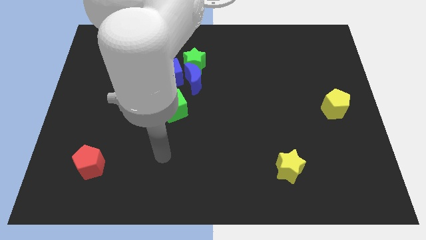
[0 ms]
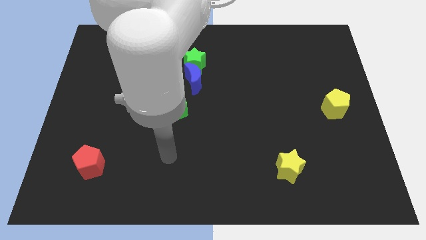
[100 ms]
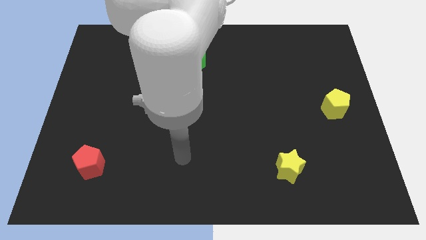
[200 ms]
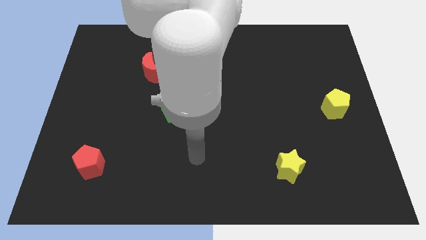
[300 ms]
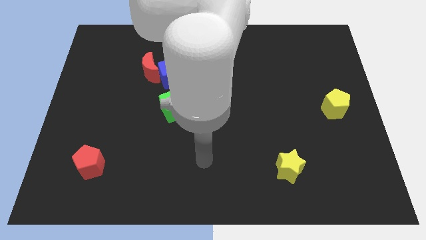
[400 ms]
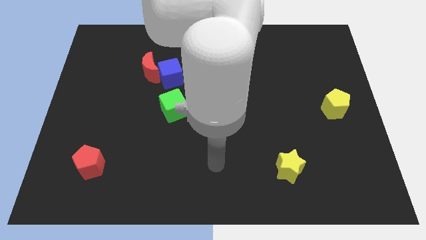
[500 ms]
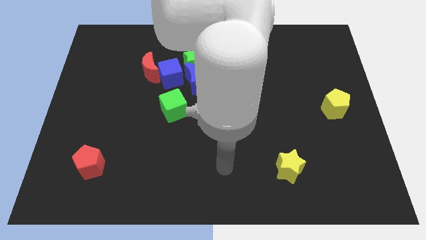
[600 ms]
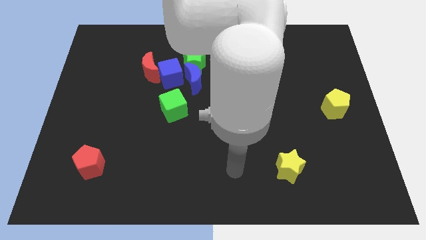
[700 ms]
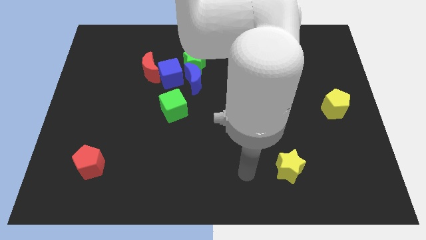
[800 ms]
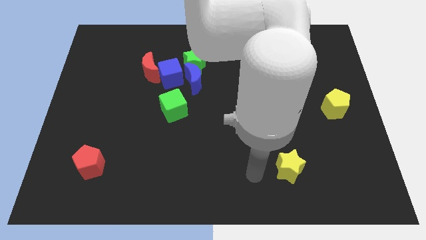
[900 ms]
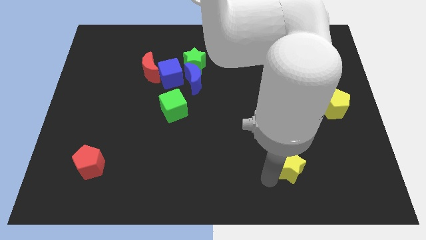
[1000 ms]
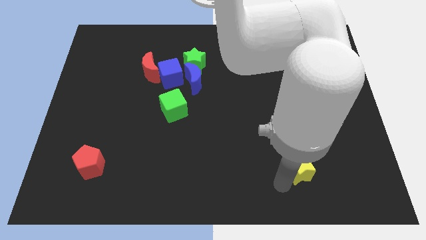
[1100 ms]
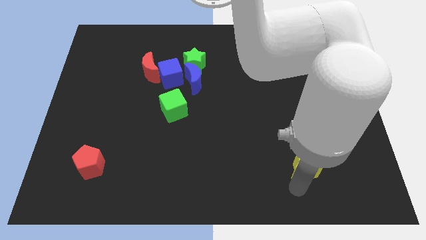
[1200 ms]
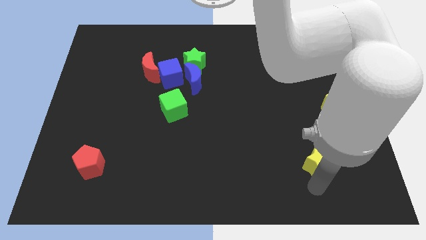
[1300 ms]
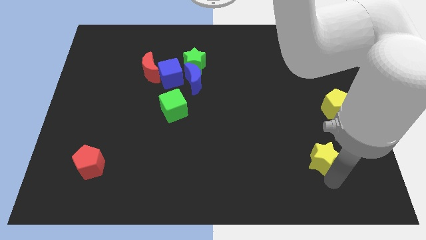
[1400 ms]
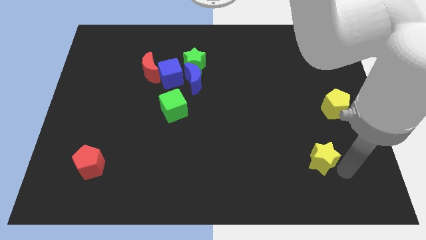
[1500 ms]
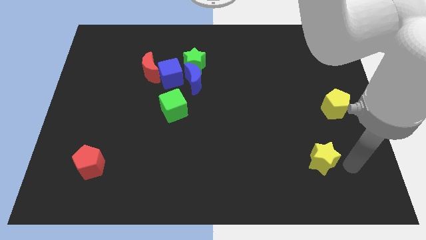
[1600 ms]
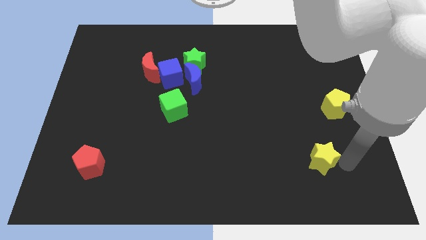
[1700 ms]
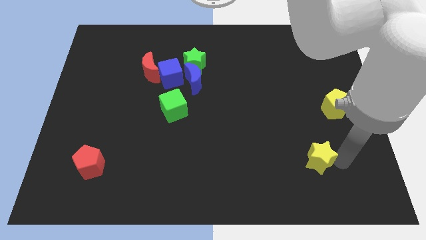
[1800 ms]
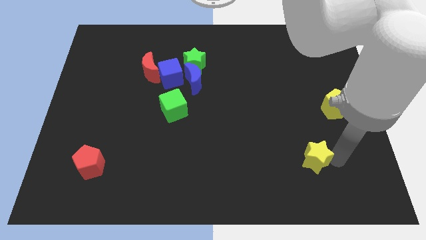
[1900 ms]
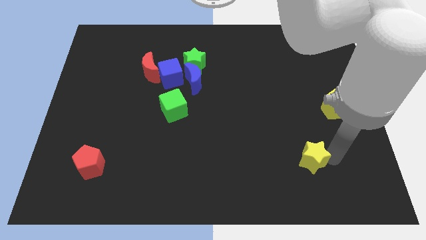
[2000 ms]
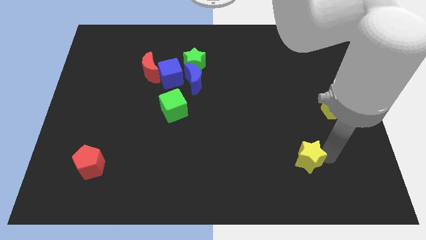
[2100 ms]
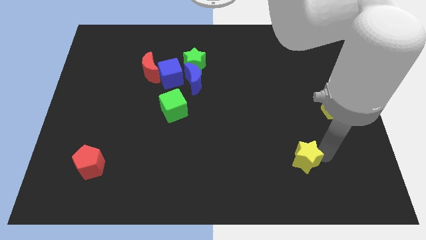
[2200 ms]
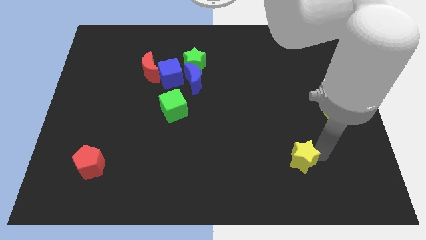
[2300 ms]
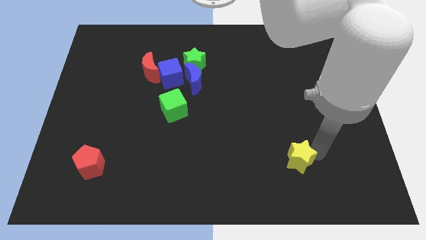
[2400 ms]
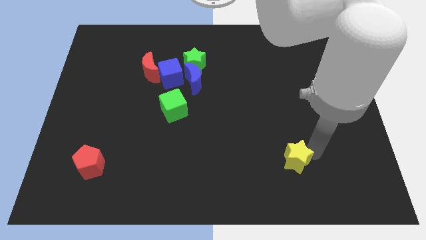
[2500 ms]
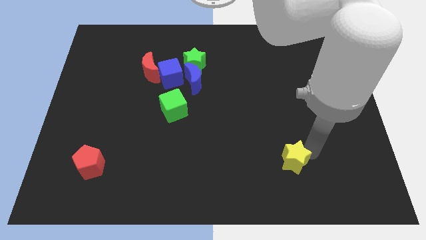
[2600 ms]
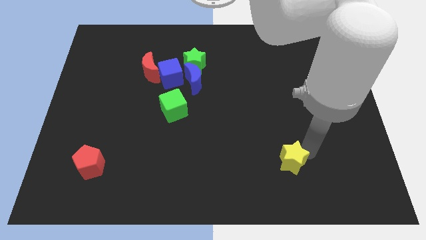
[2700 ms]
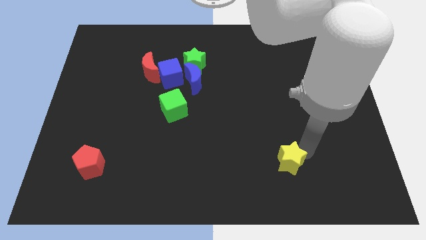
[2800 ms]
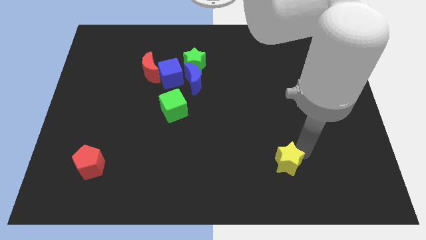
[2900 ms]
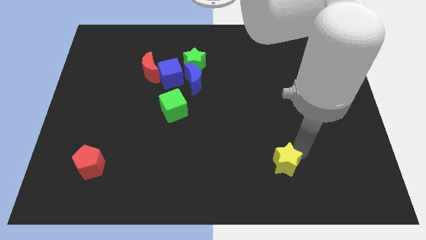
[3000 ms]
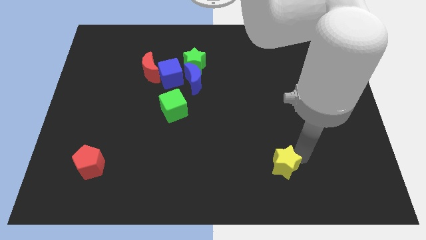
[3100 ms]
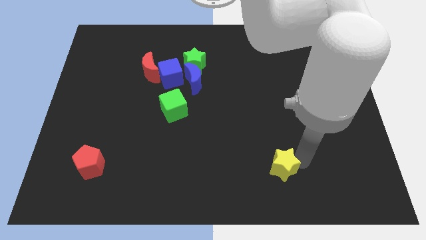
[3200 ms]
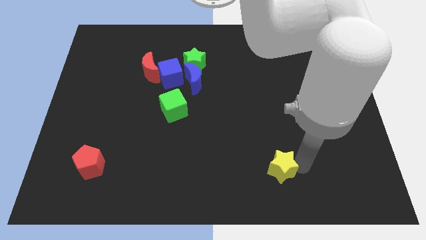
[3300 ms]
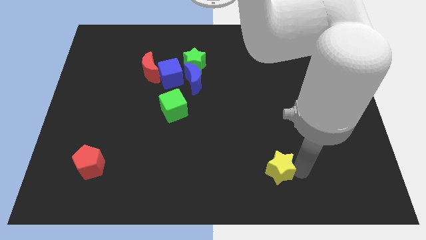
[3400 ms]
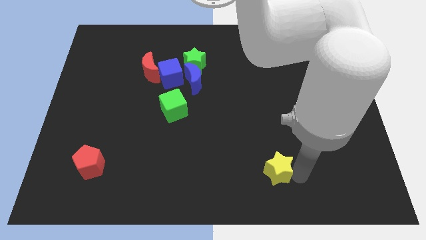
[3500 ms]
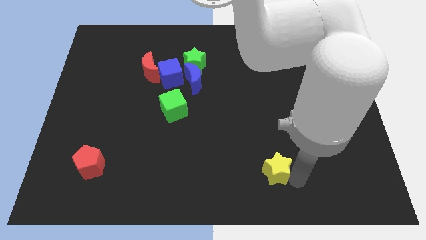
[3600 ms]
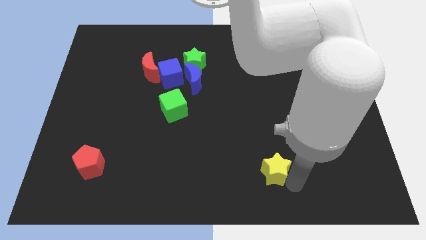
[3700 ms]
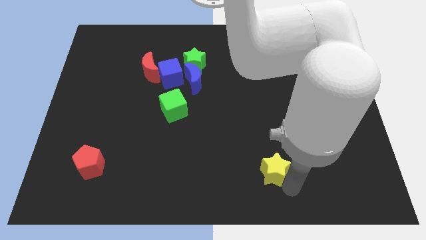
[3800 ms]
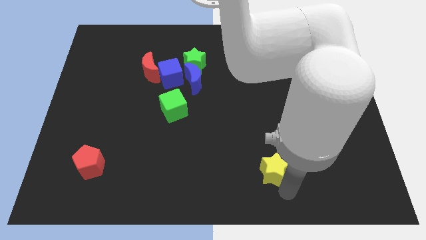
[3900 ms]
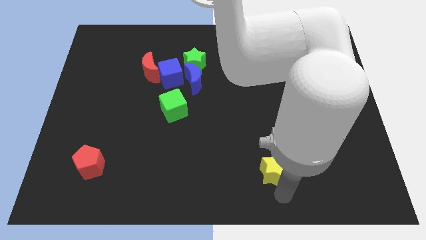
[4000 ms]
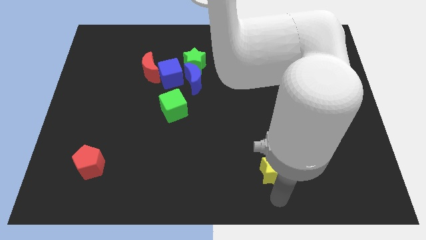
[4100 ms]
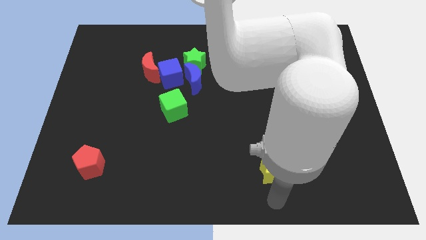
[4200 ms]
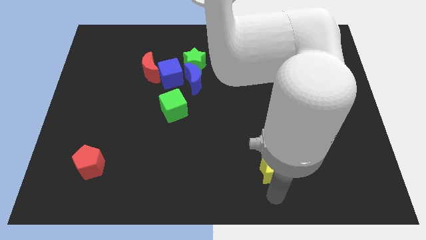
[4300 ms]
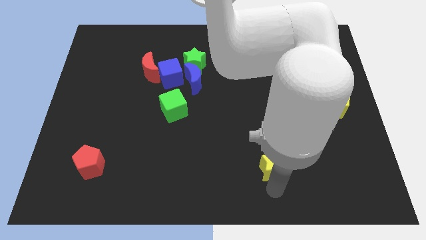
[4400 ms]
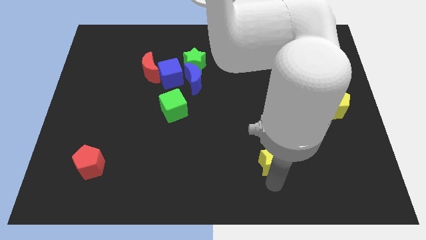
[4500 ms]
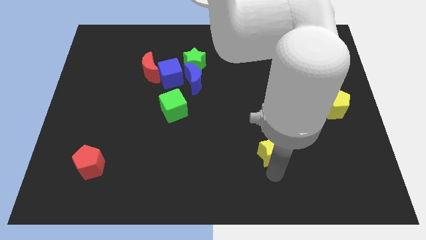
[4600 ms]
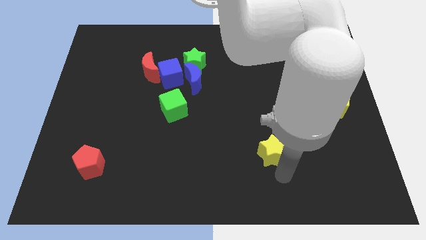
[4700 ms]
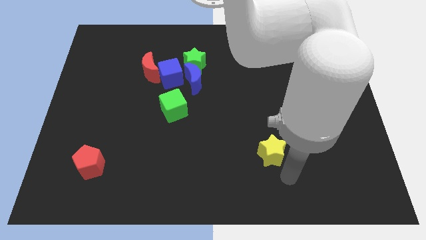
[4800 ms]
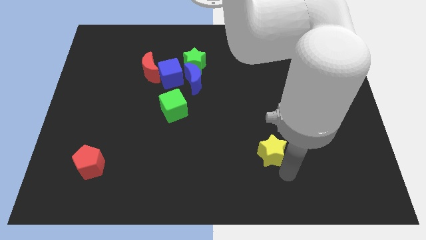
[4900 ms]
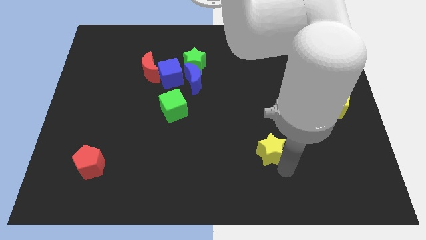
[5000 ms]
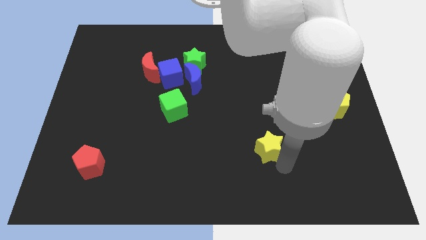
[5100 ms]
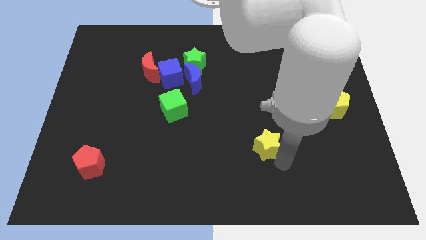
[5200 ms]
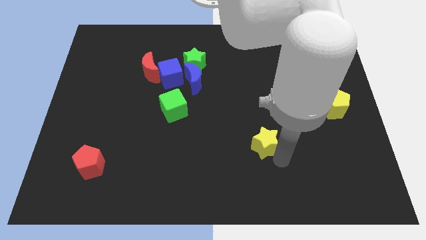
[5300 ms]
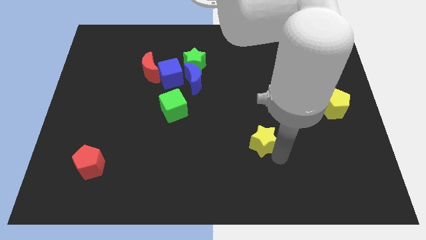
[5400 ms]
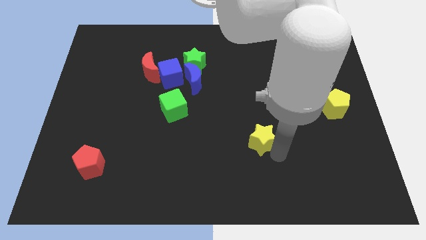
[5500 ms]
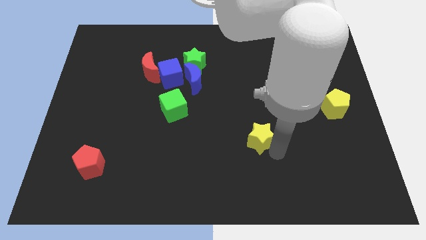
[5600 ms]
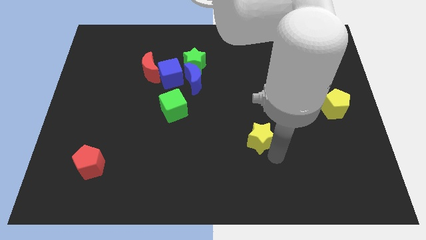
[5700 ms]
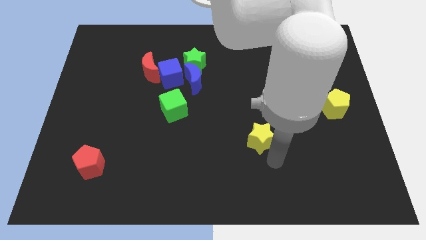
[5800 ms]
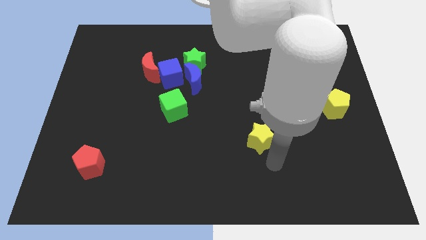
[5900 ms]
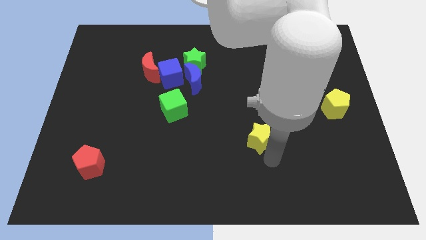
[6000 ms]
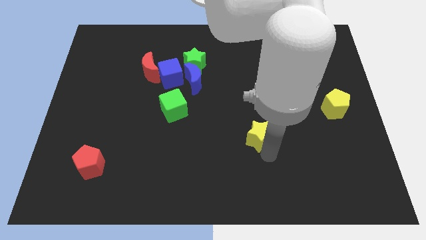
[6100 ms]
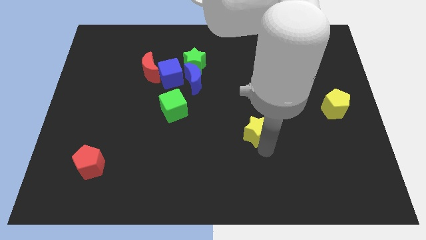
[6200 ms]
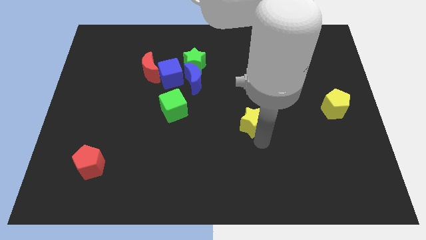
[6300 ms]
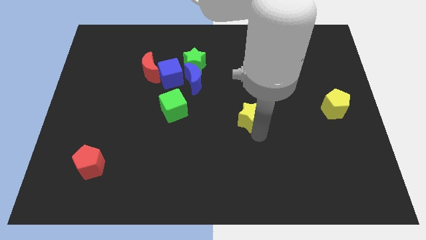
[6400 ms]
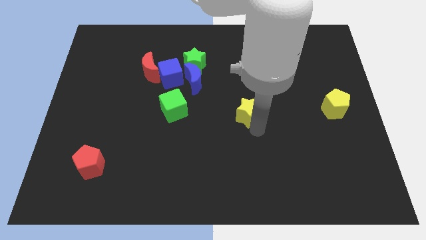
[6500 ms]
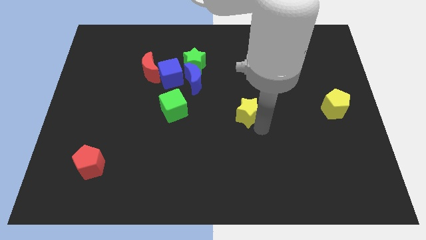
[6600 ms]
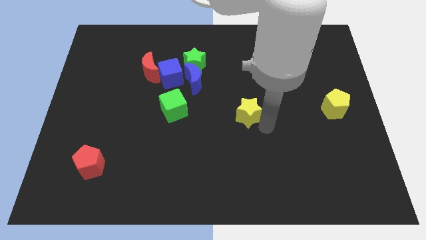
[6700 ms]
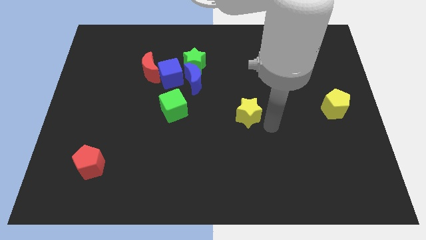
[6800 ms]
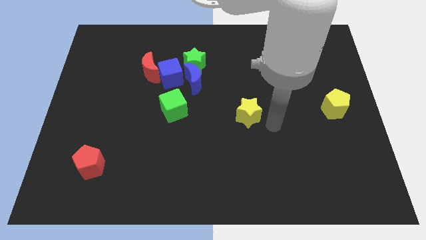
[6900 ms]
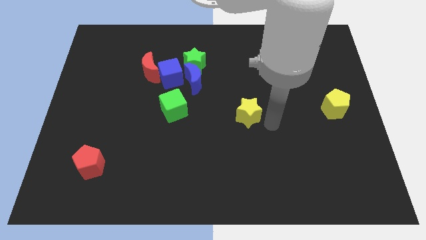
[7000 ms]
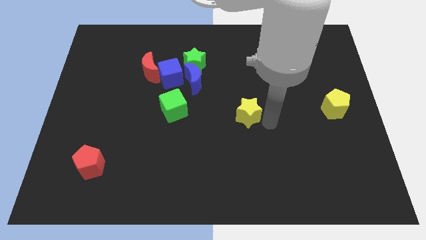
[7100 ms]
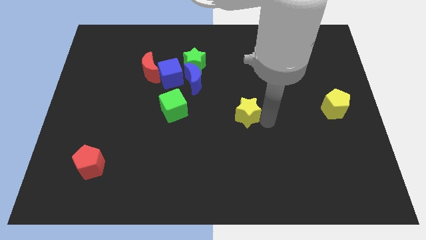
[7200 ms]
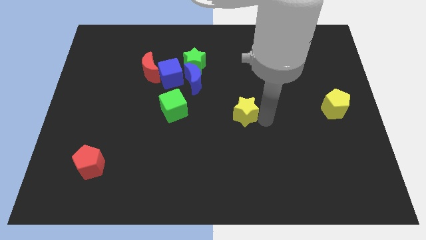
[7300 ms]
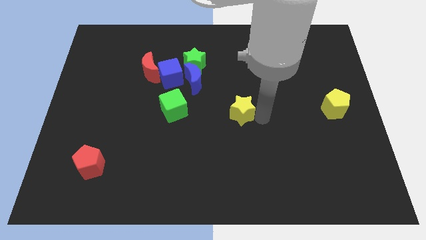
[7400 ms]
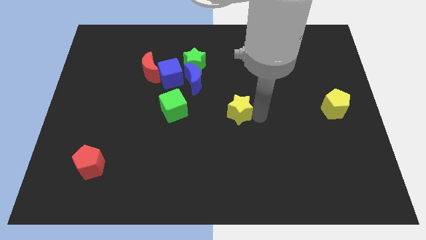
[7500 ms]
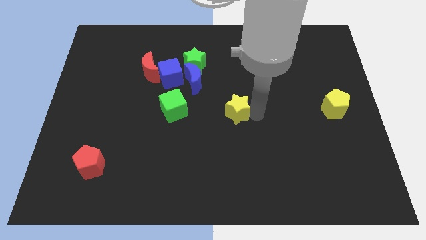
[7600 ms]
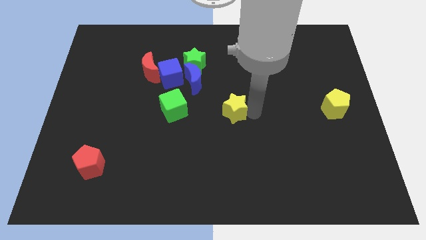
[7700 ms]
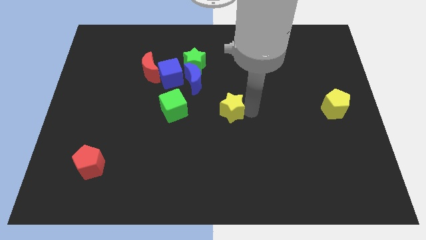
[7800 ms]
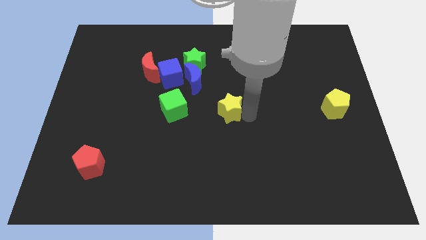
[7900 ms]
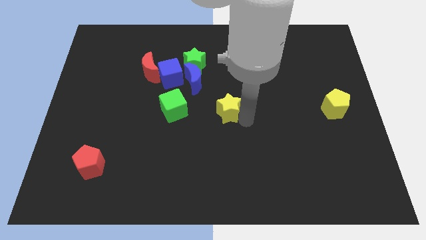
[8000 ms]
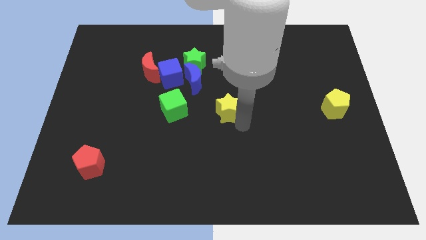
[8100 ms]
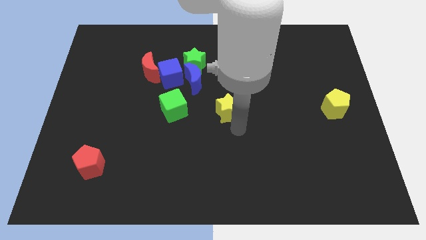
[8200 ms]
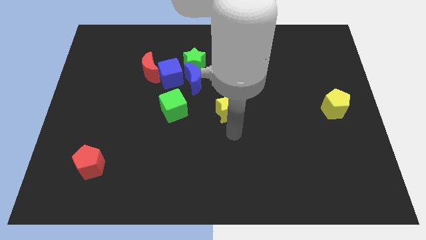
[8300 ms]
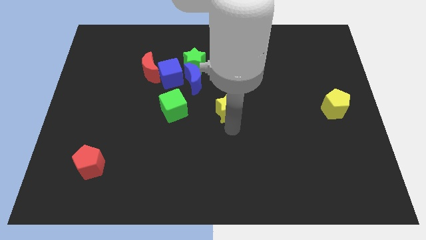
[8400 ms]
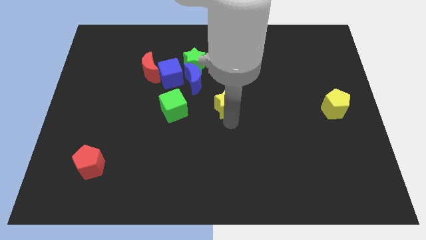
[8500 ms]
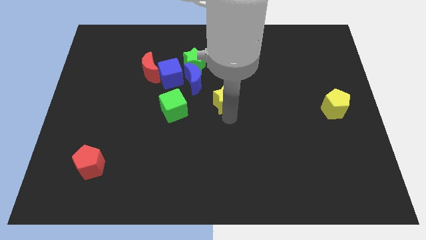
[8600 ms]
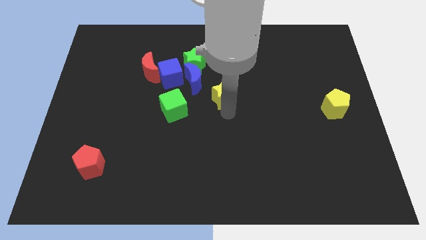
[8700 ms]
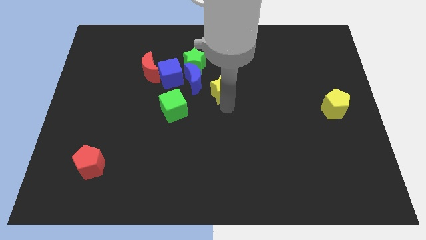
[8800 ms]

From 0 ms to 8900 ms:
push the yellow star diagonally down and to the right of the green star
